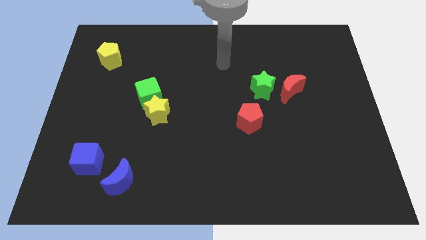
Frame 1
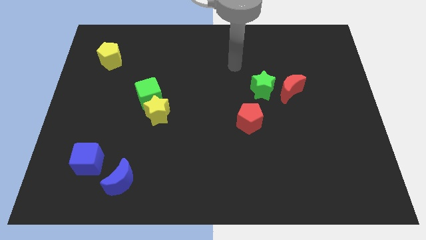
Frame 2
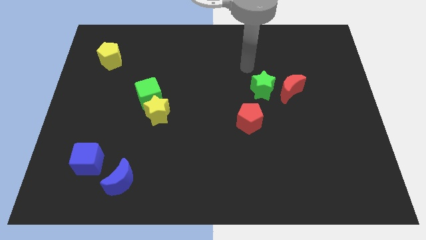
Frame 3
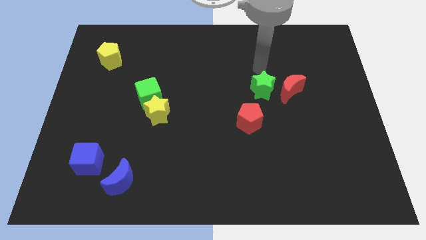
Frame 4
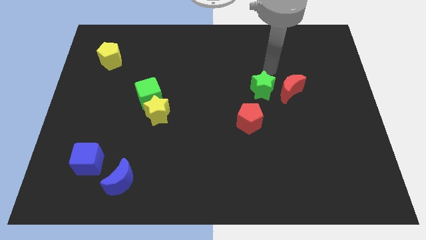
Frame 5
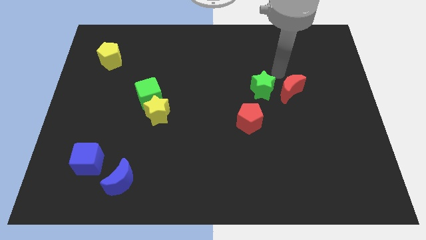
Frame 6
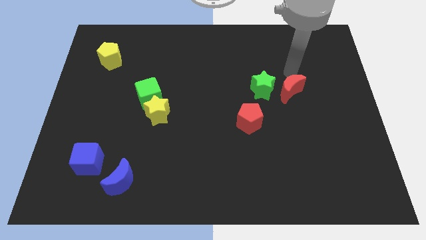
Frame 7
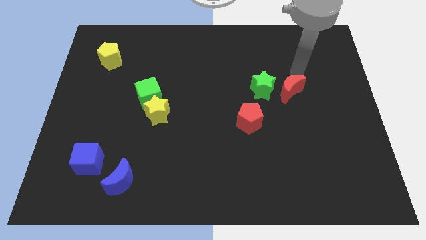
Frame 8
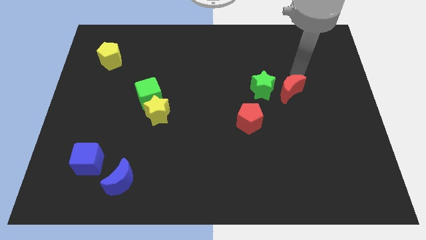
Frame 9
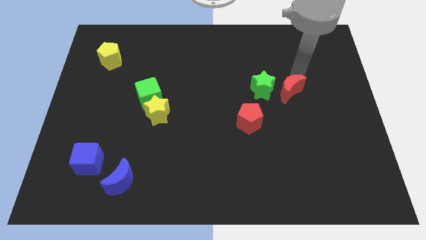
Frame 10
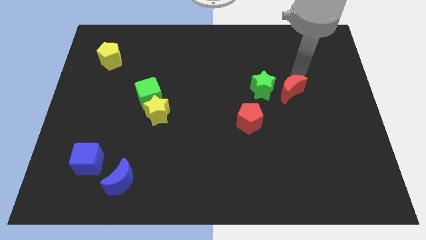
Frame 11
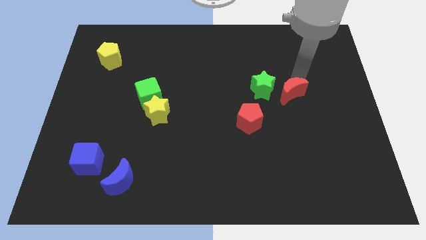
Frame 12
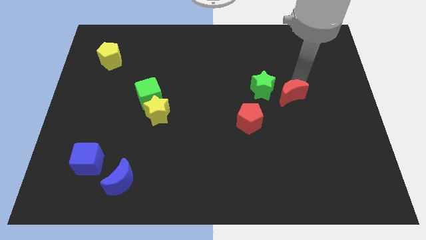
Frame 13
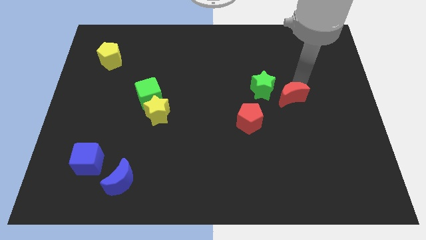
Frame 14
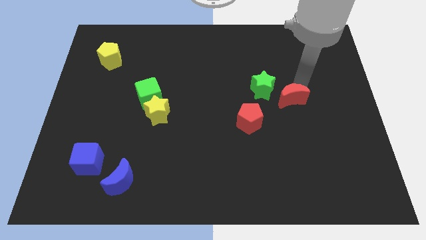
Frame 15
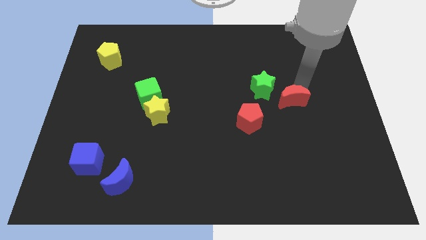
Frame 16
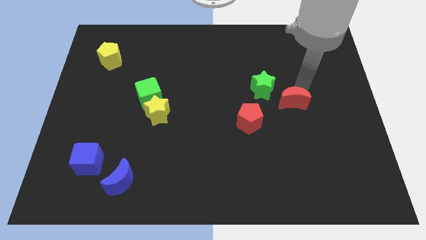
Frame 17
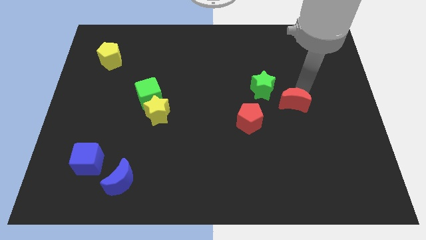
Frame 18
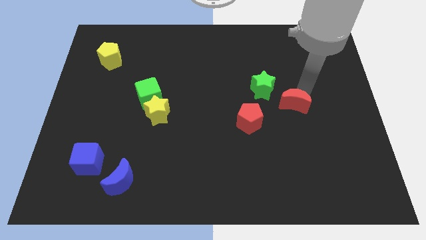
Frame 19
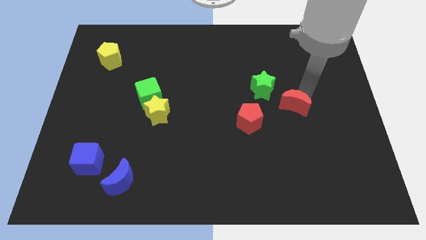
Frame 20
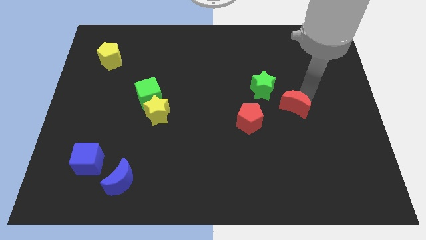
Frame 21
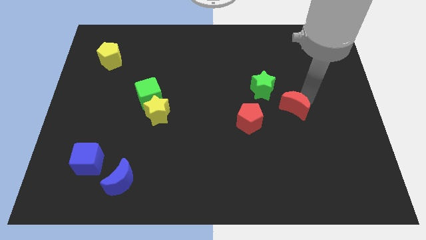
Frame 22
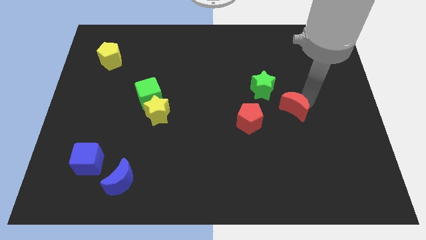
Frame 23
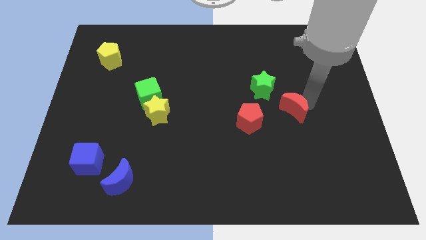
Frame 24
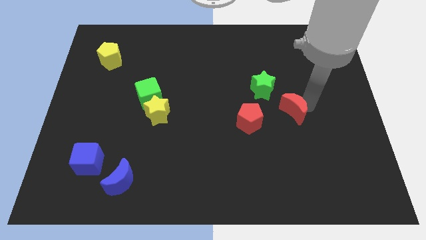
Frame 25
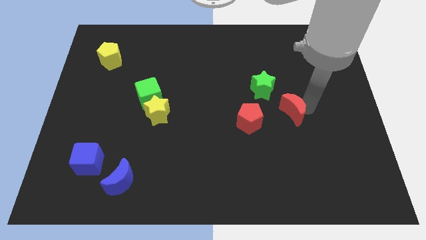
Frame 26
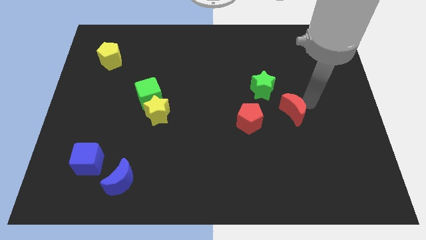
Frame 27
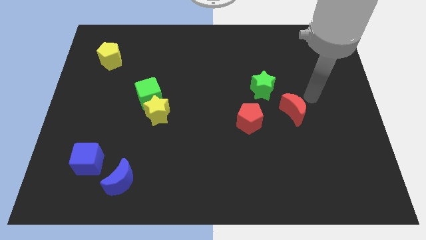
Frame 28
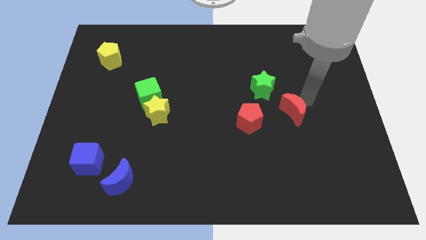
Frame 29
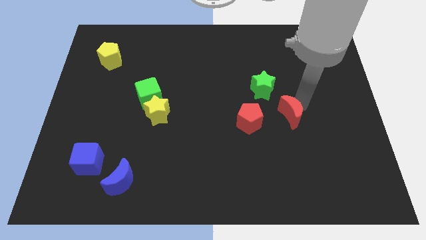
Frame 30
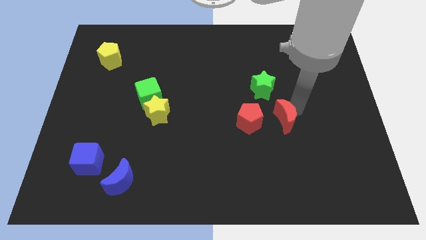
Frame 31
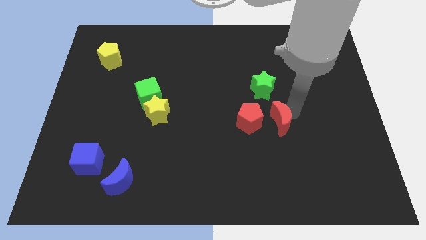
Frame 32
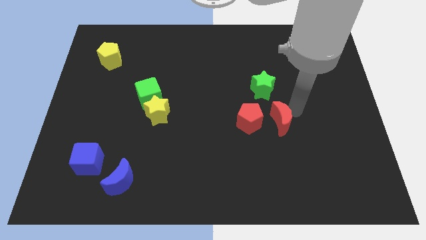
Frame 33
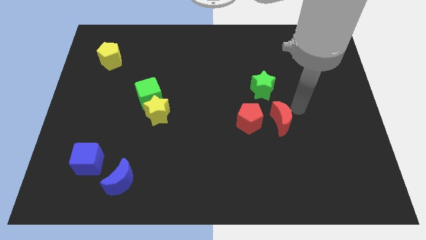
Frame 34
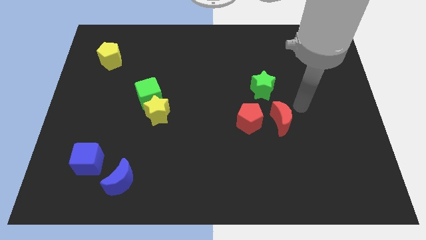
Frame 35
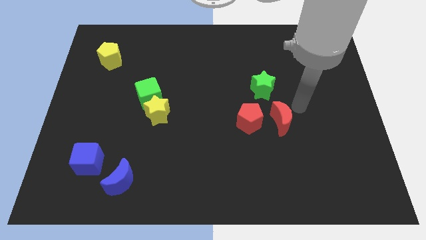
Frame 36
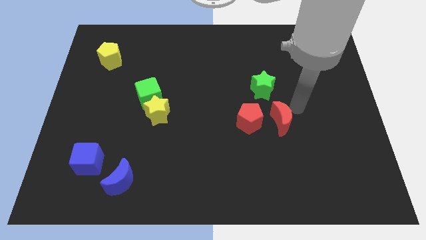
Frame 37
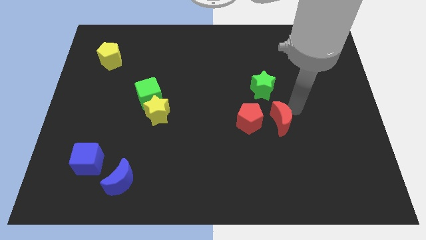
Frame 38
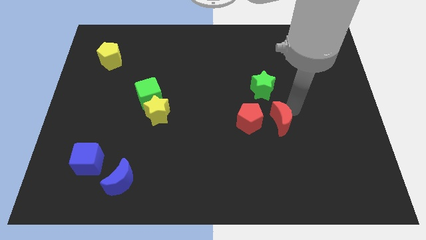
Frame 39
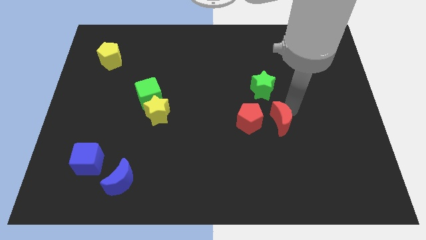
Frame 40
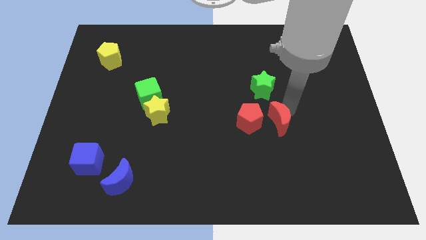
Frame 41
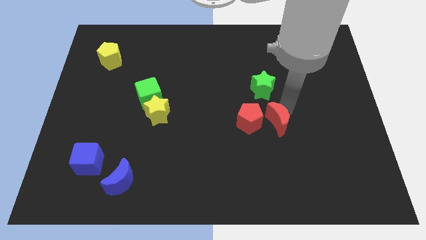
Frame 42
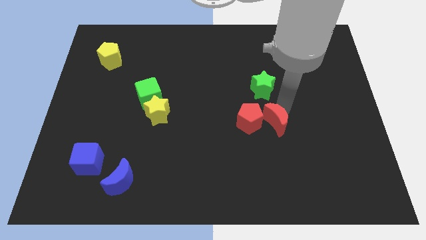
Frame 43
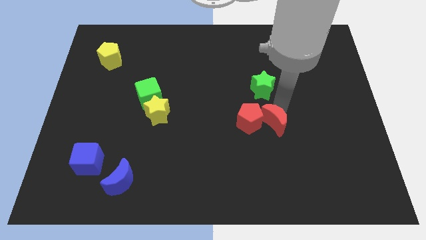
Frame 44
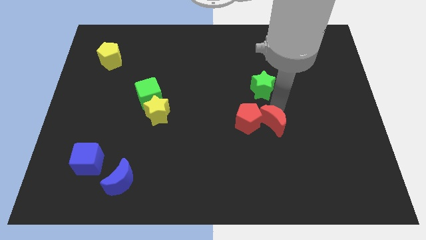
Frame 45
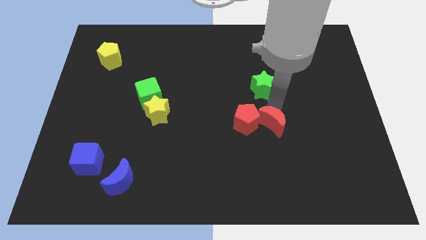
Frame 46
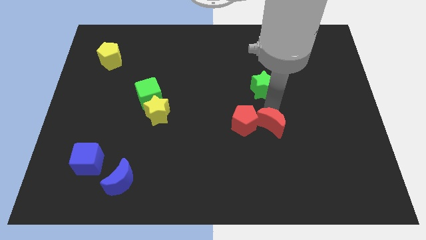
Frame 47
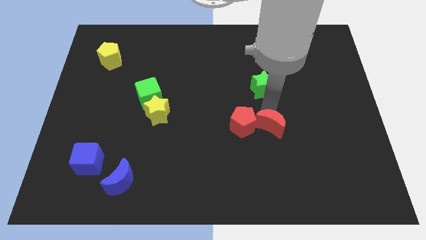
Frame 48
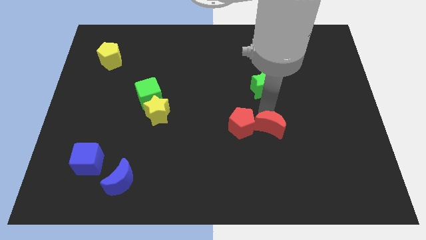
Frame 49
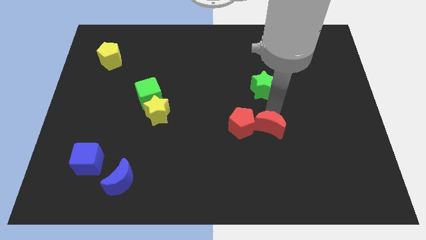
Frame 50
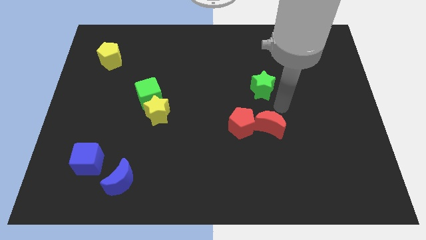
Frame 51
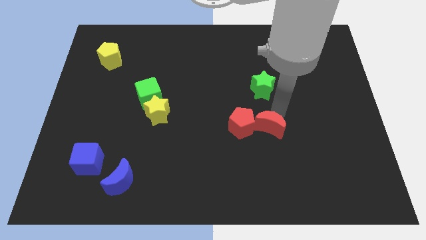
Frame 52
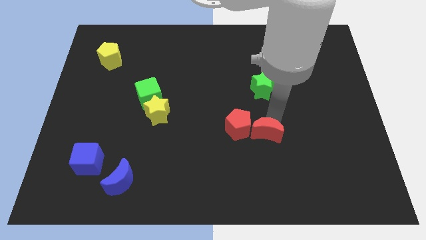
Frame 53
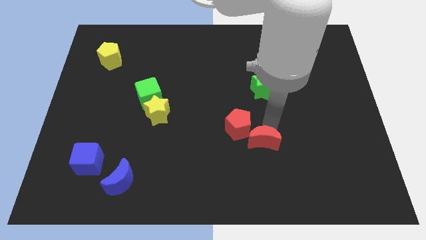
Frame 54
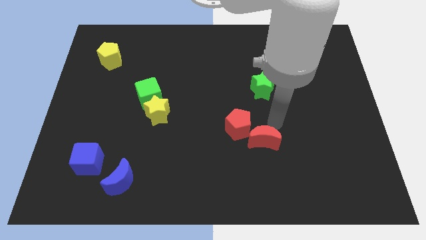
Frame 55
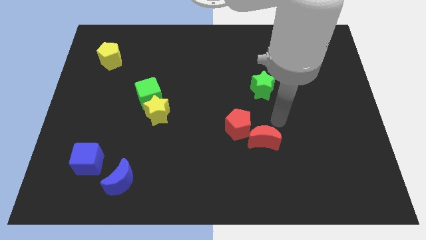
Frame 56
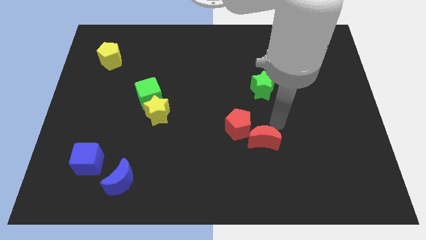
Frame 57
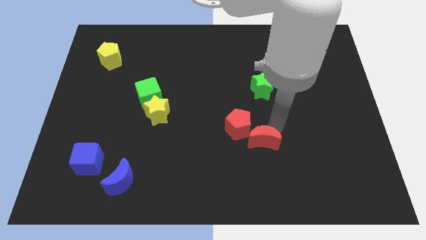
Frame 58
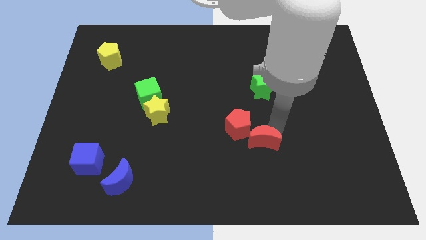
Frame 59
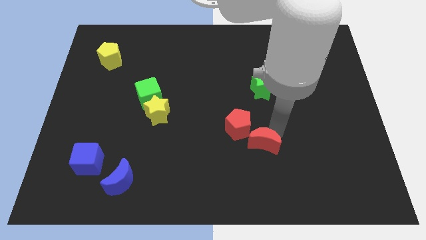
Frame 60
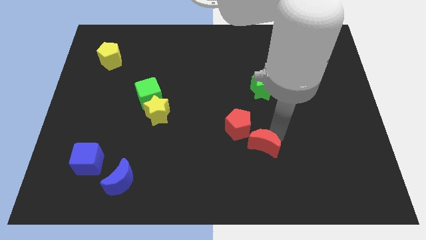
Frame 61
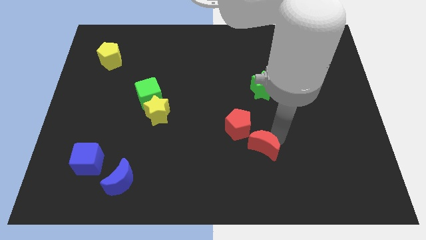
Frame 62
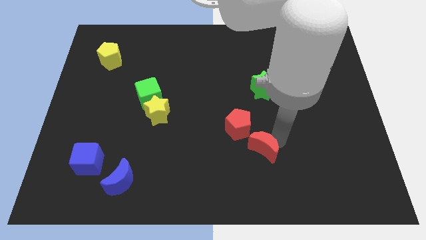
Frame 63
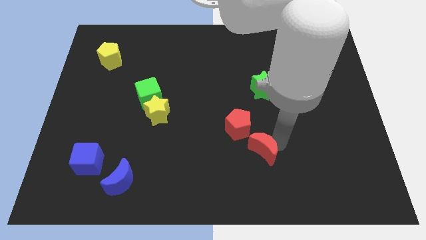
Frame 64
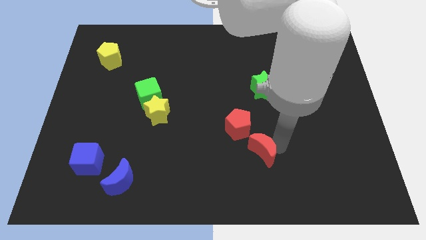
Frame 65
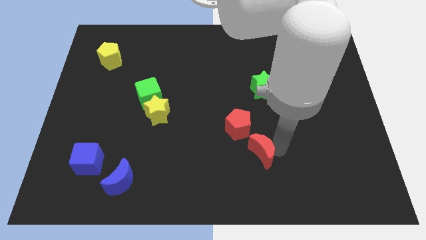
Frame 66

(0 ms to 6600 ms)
move the red moon to the bottom of the red pentagon
